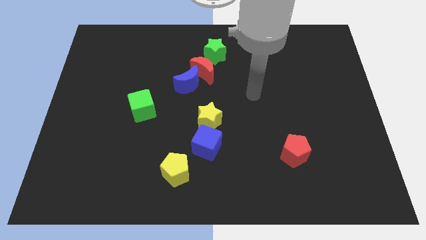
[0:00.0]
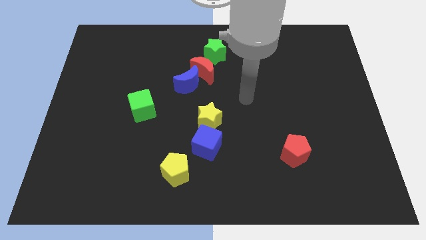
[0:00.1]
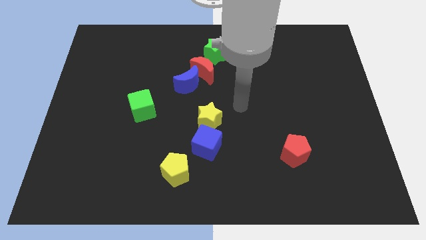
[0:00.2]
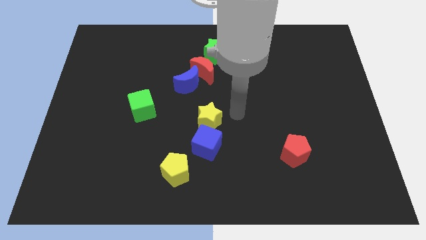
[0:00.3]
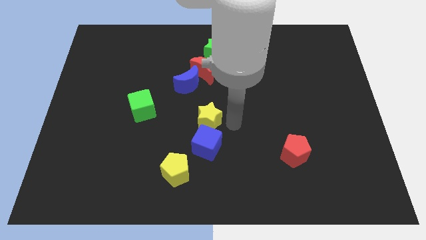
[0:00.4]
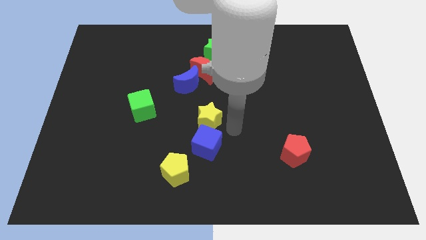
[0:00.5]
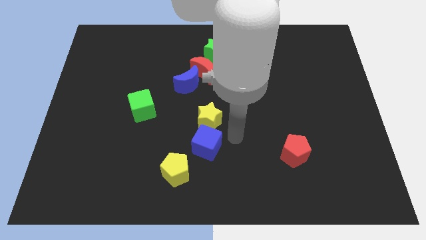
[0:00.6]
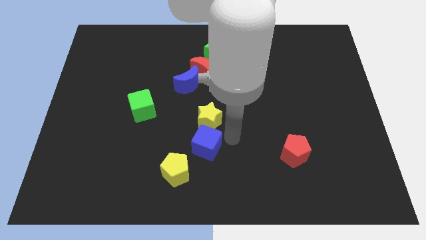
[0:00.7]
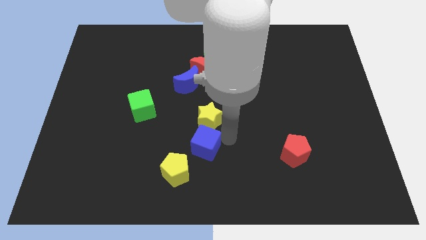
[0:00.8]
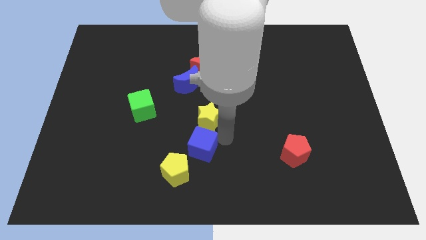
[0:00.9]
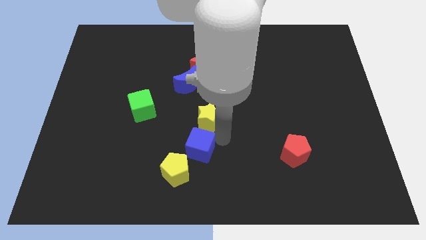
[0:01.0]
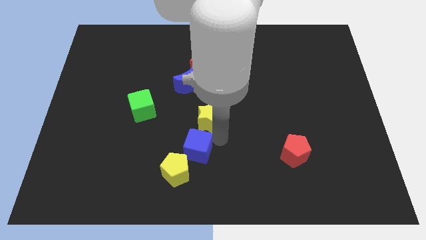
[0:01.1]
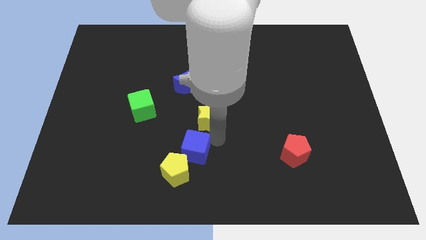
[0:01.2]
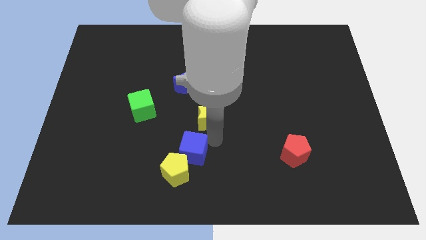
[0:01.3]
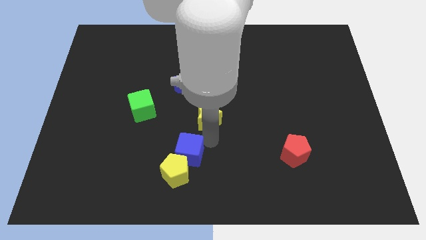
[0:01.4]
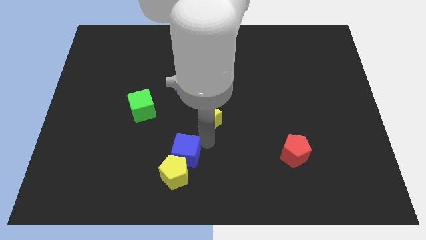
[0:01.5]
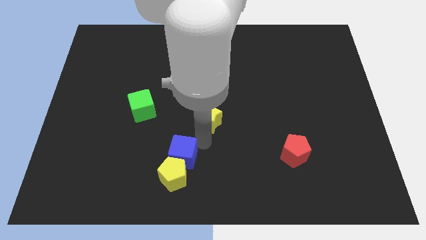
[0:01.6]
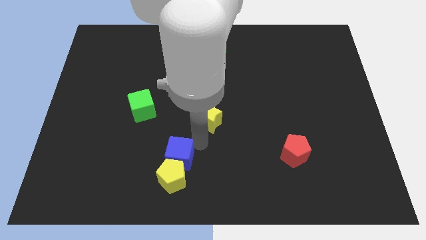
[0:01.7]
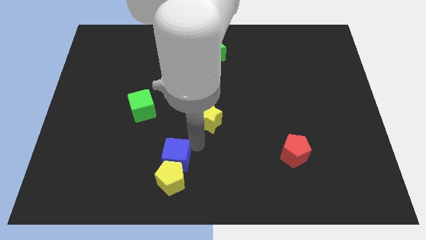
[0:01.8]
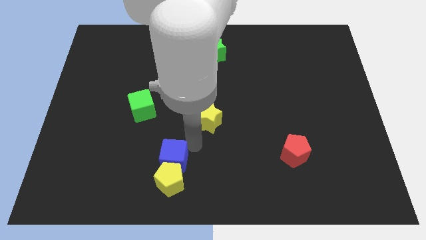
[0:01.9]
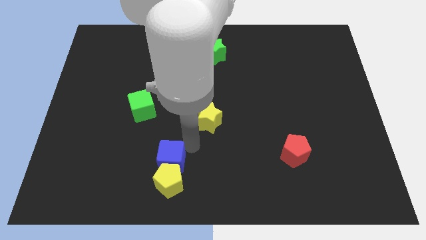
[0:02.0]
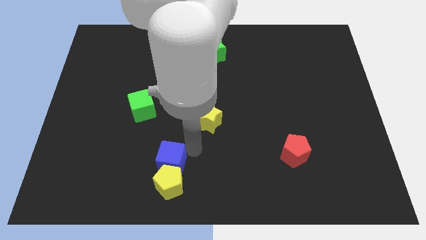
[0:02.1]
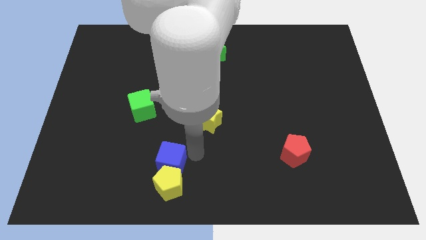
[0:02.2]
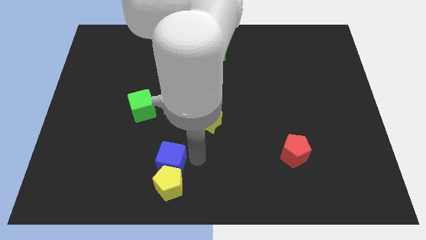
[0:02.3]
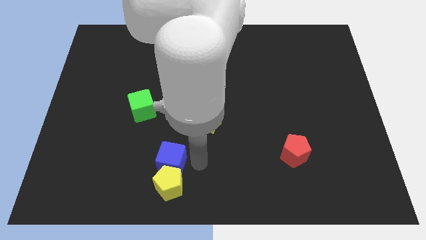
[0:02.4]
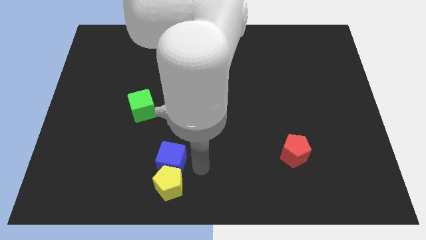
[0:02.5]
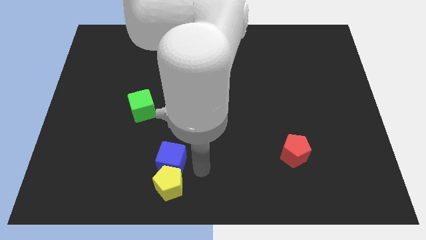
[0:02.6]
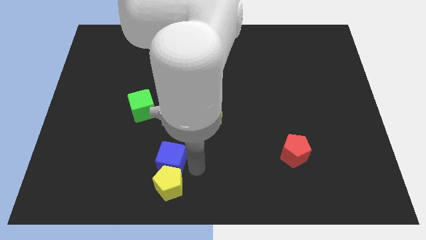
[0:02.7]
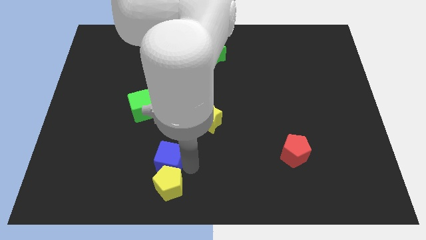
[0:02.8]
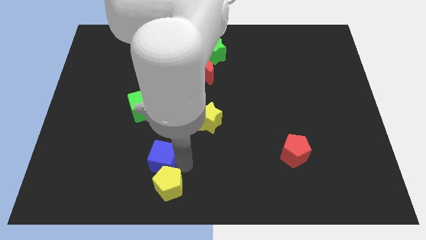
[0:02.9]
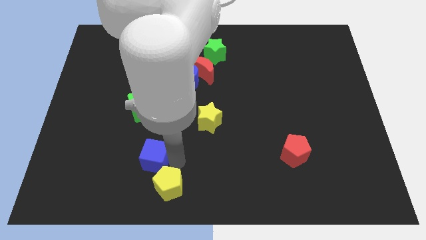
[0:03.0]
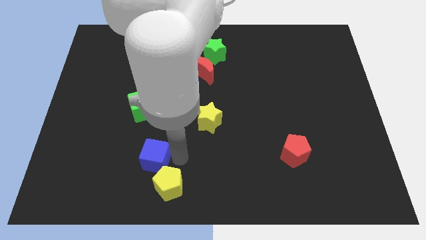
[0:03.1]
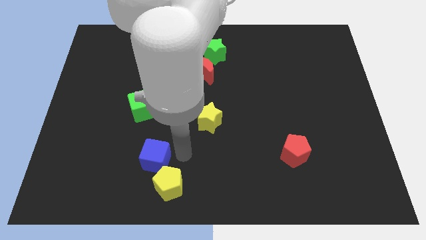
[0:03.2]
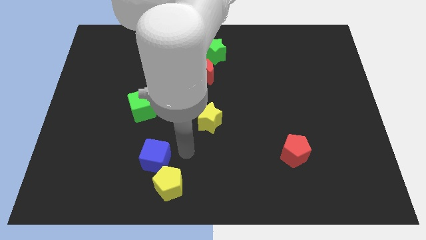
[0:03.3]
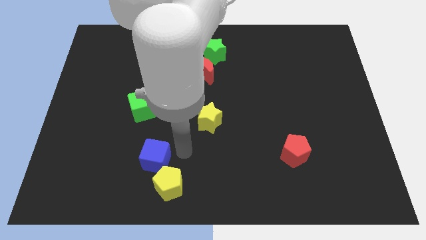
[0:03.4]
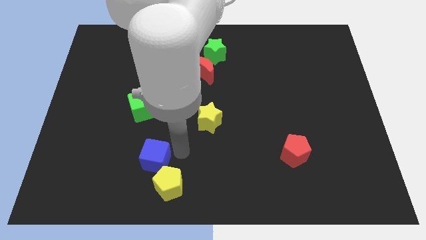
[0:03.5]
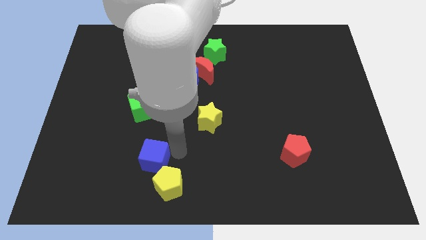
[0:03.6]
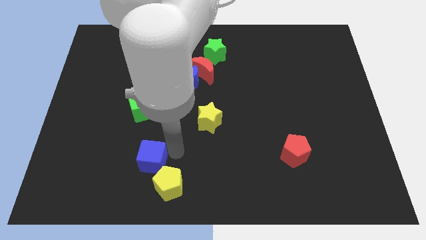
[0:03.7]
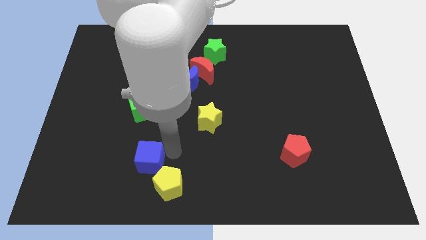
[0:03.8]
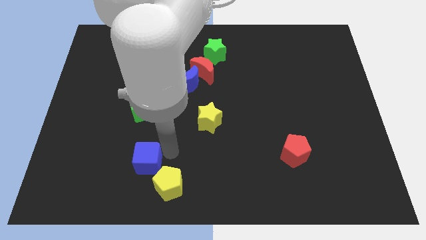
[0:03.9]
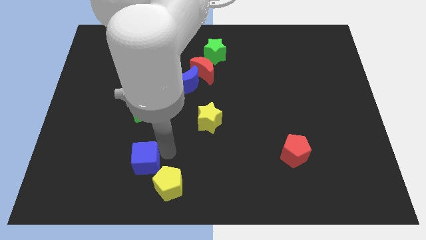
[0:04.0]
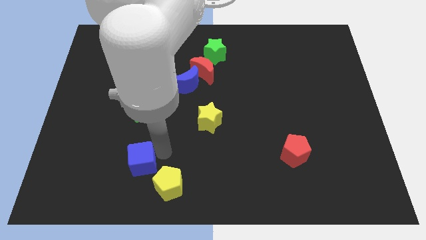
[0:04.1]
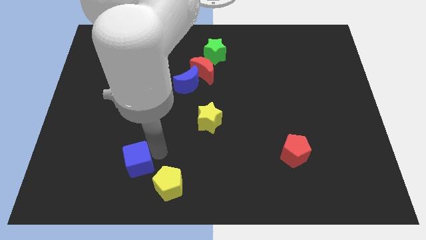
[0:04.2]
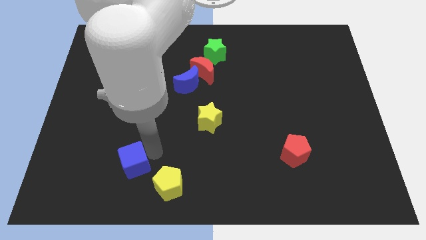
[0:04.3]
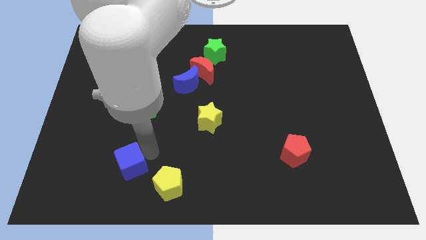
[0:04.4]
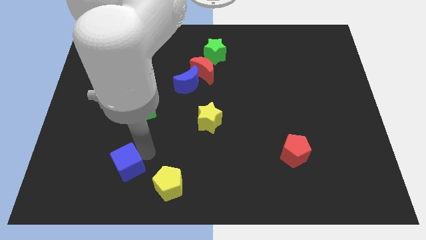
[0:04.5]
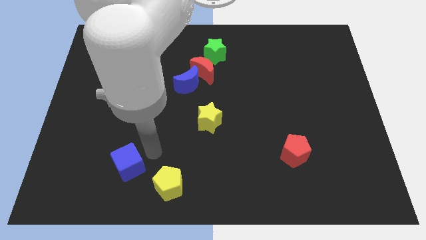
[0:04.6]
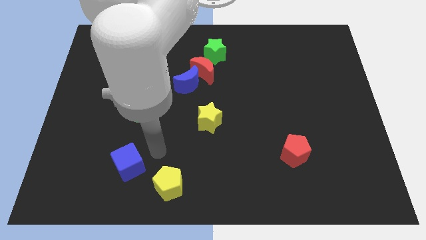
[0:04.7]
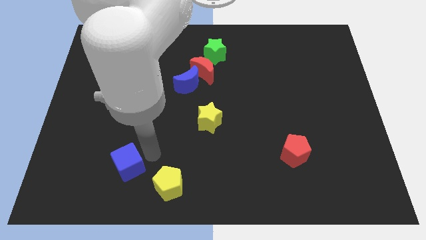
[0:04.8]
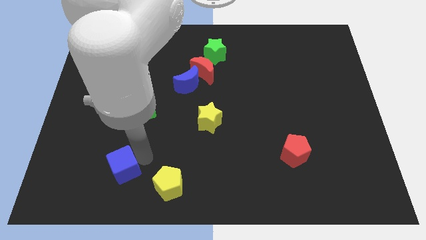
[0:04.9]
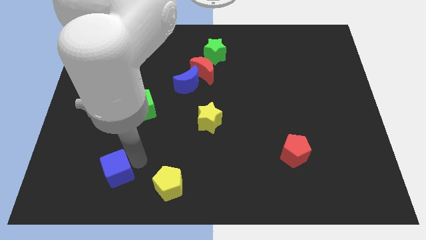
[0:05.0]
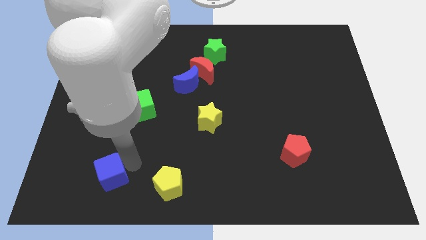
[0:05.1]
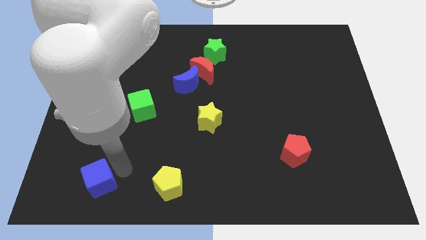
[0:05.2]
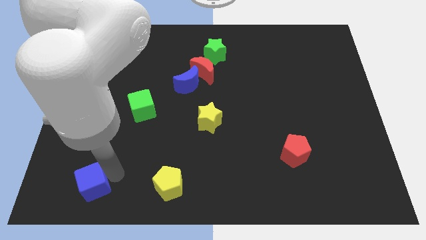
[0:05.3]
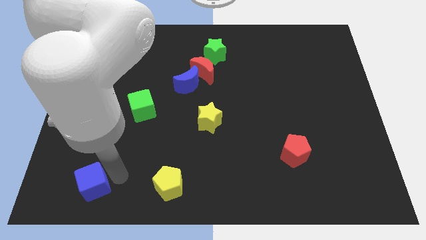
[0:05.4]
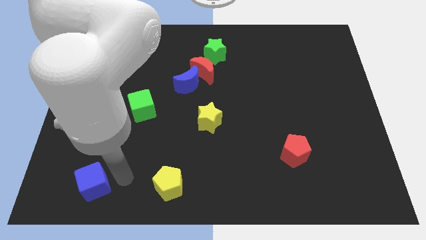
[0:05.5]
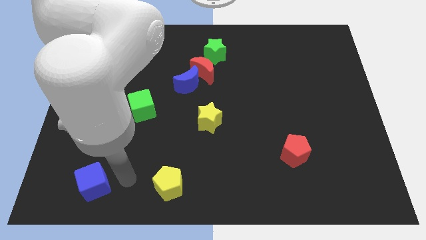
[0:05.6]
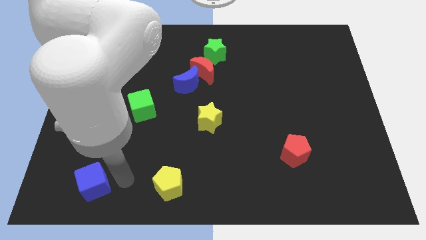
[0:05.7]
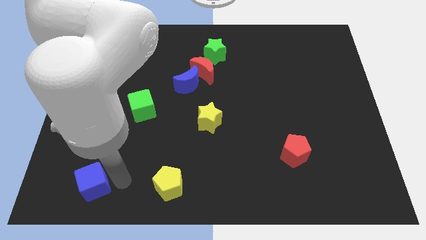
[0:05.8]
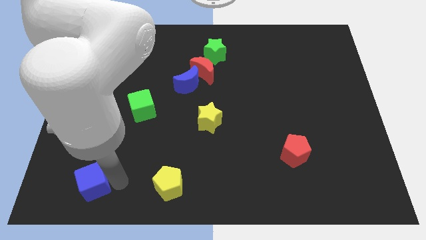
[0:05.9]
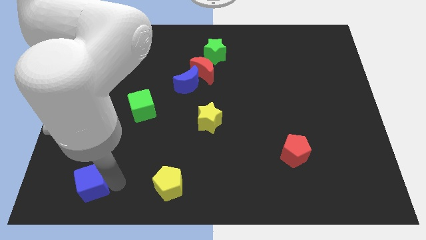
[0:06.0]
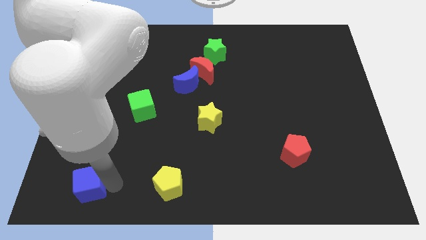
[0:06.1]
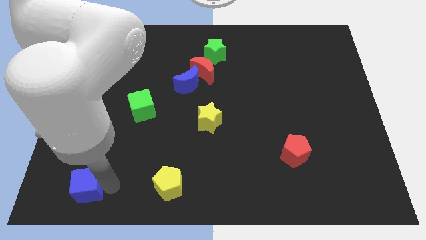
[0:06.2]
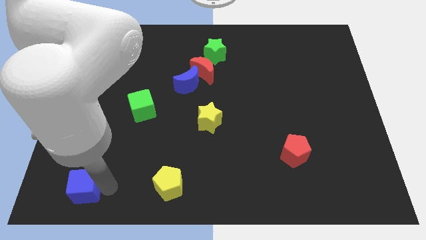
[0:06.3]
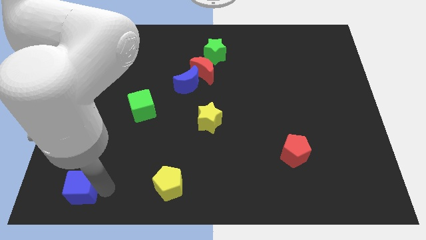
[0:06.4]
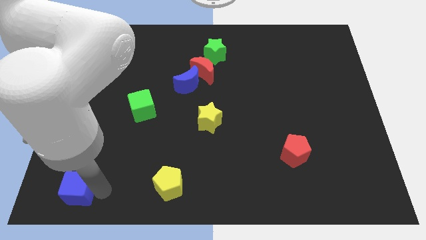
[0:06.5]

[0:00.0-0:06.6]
slide the blue cube to the lower left corner

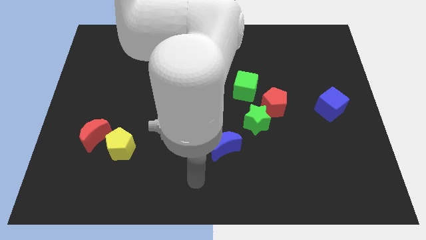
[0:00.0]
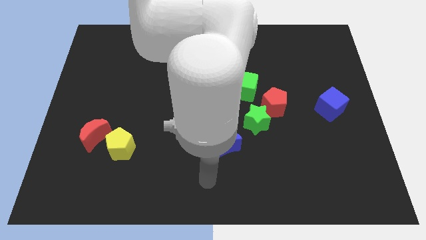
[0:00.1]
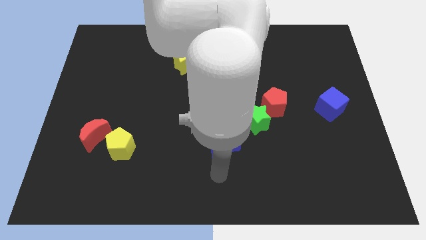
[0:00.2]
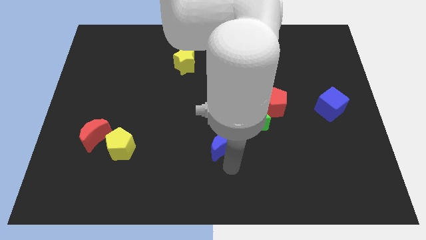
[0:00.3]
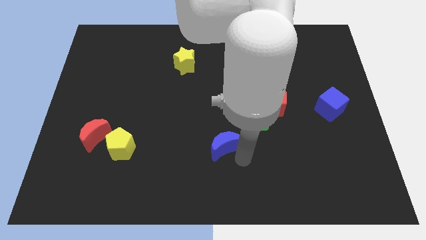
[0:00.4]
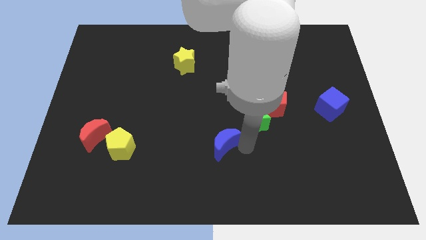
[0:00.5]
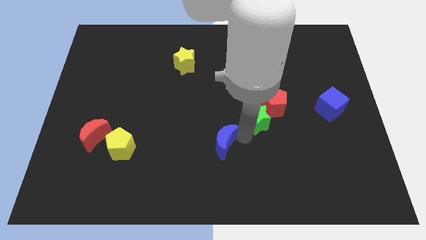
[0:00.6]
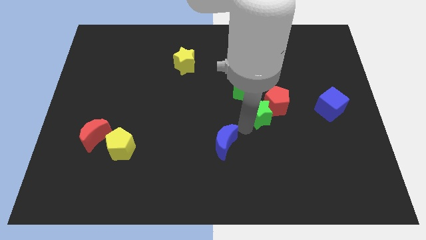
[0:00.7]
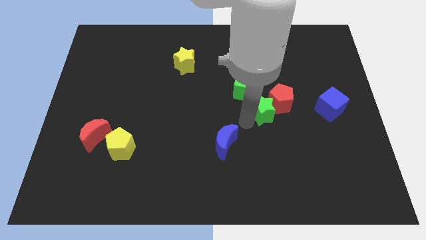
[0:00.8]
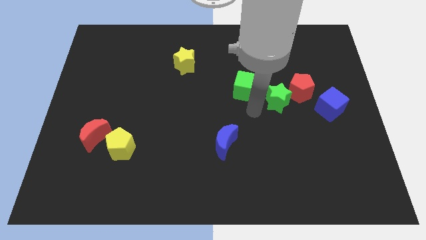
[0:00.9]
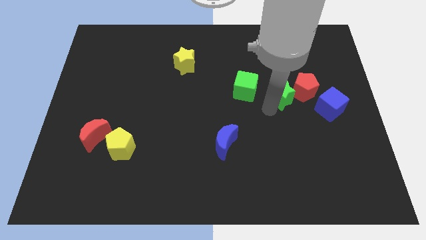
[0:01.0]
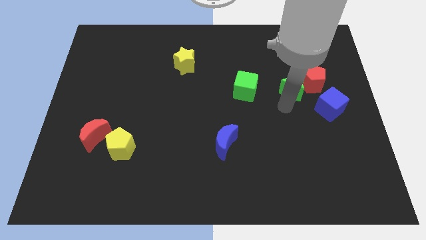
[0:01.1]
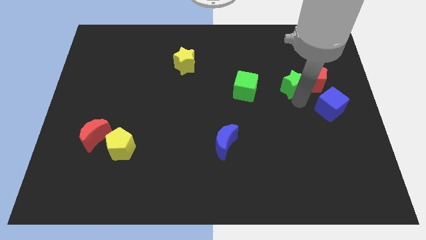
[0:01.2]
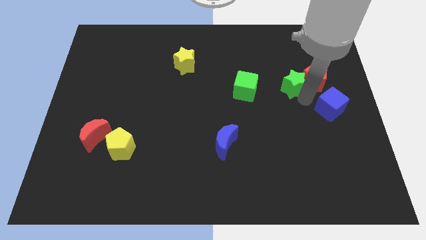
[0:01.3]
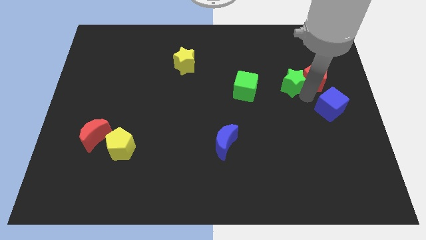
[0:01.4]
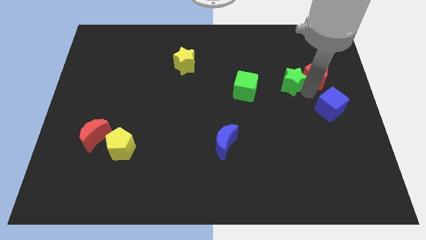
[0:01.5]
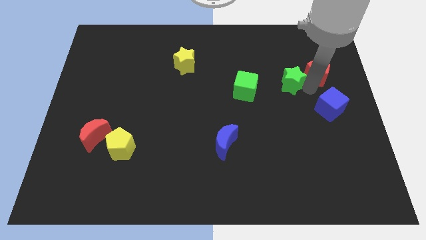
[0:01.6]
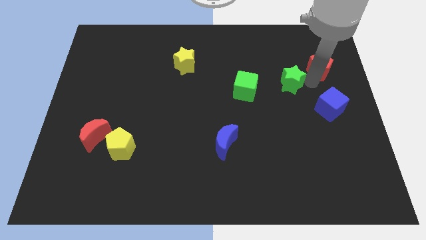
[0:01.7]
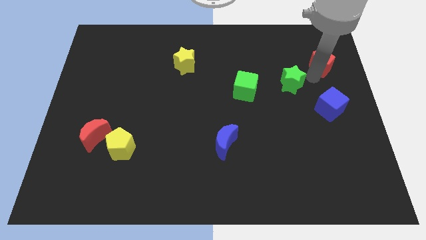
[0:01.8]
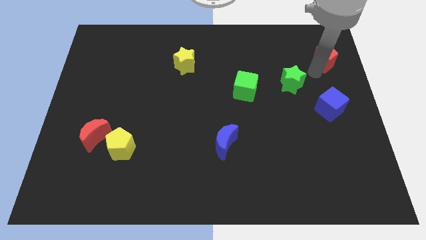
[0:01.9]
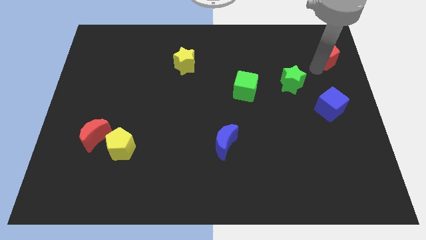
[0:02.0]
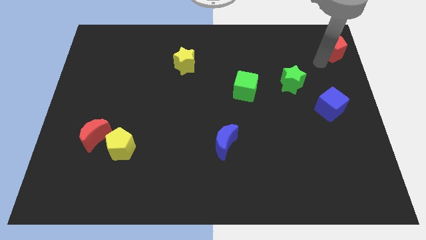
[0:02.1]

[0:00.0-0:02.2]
put the red pentagon to the upper right corner
